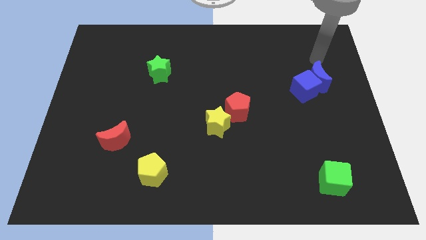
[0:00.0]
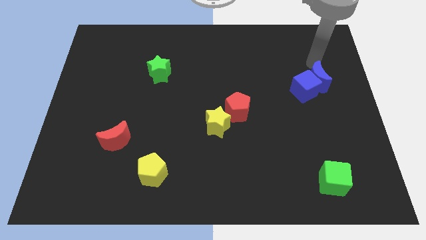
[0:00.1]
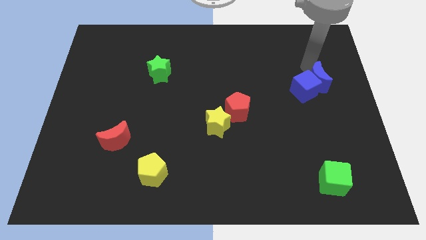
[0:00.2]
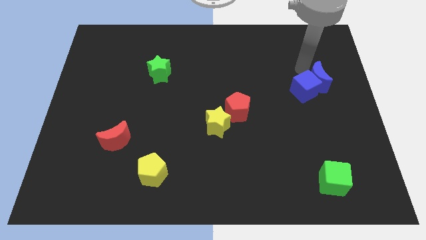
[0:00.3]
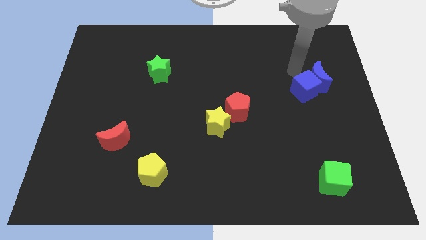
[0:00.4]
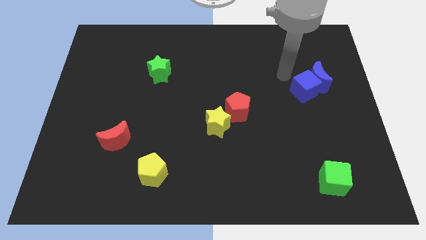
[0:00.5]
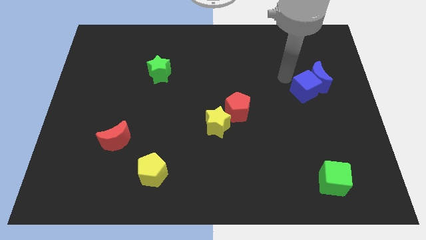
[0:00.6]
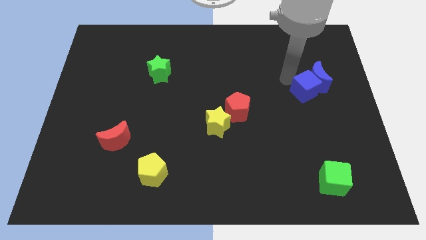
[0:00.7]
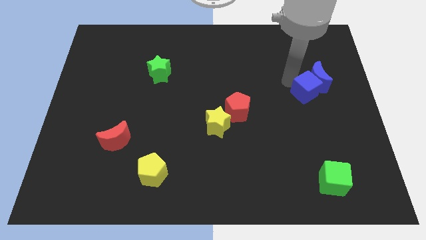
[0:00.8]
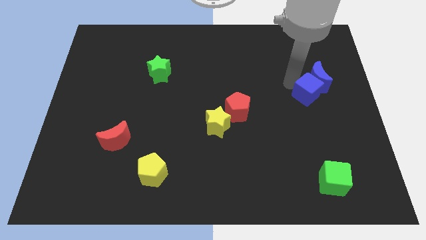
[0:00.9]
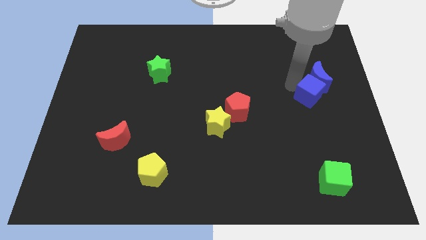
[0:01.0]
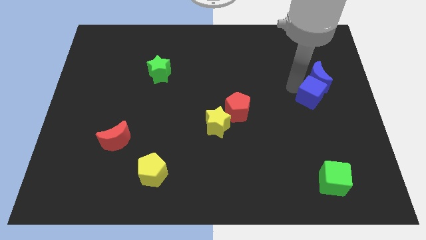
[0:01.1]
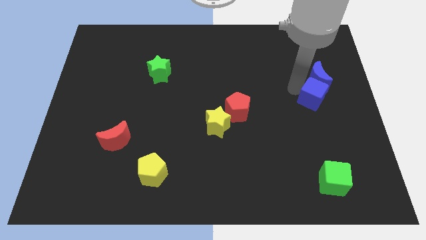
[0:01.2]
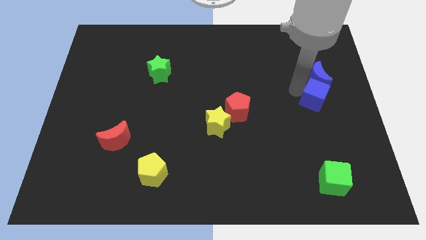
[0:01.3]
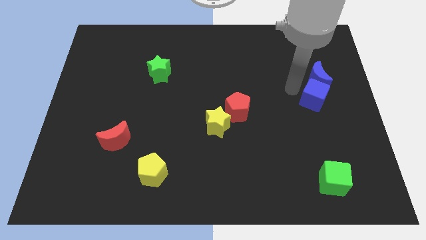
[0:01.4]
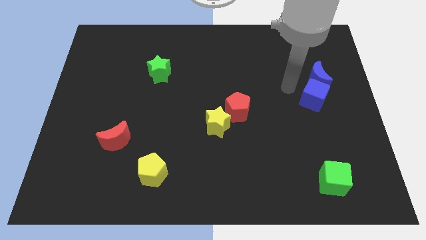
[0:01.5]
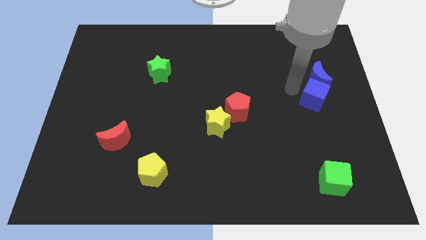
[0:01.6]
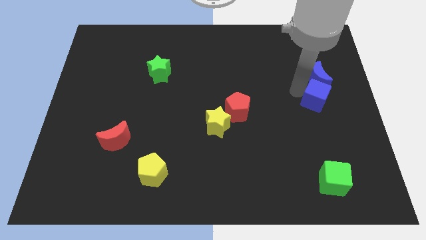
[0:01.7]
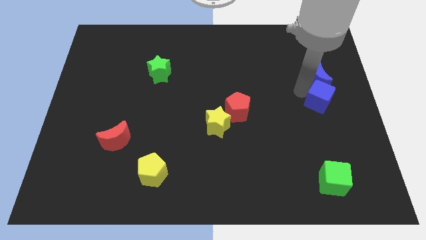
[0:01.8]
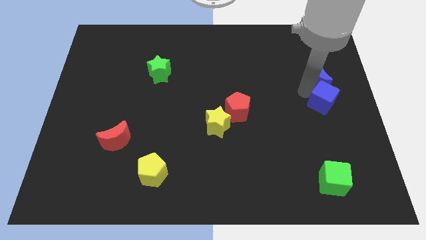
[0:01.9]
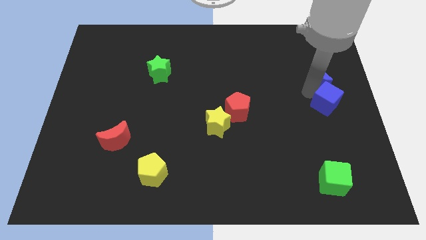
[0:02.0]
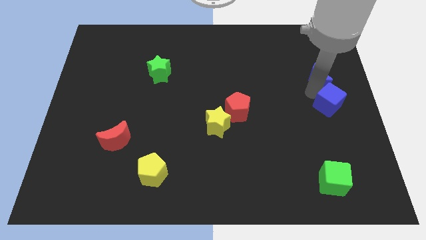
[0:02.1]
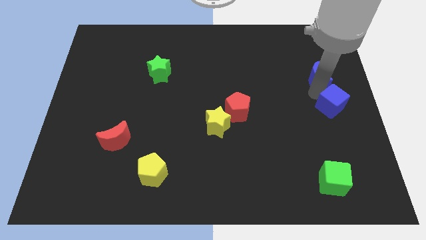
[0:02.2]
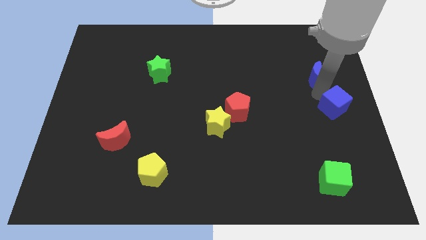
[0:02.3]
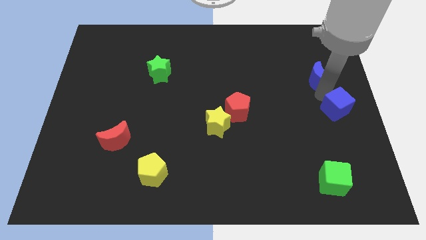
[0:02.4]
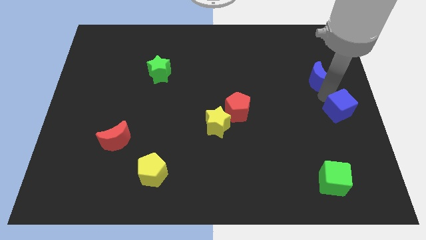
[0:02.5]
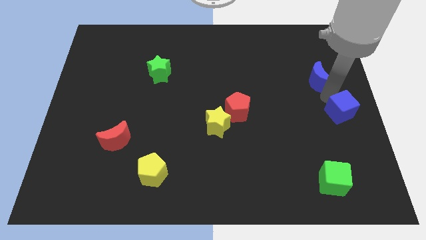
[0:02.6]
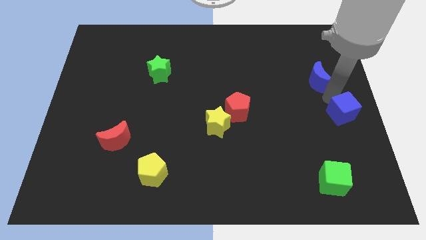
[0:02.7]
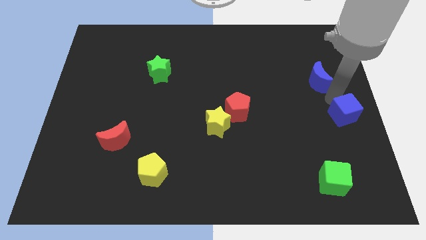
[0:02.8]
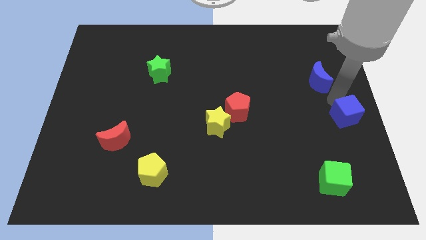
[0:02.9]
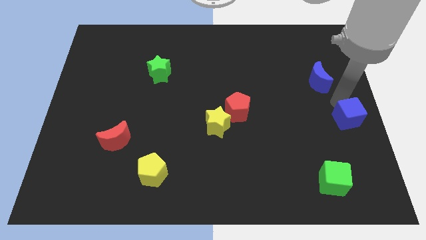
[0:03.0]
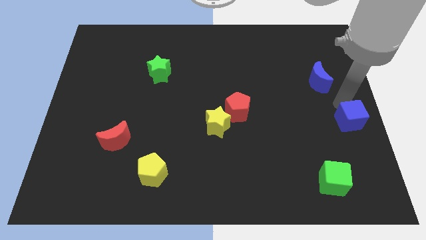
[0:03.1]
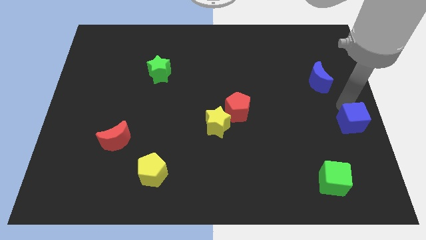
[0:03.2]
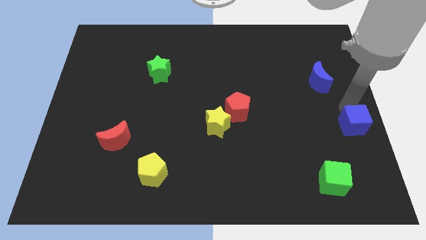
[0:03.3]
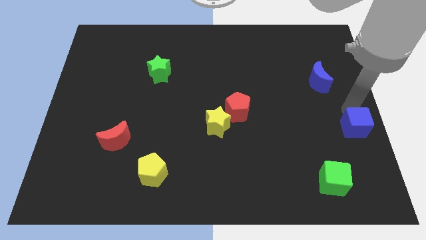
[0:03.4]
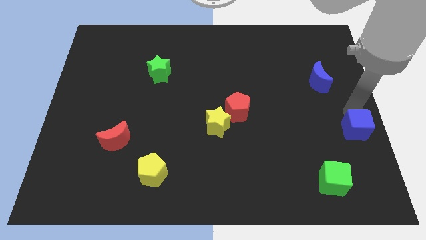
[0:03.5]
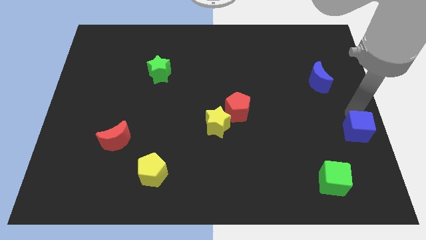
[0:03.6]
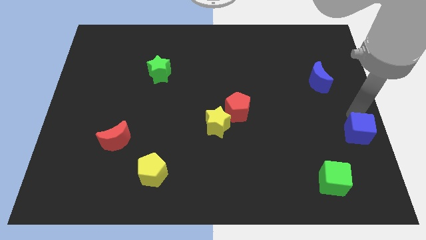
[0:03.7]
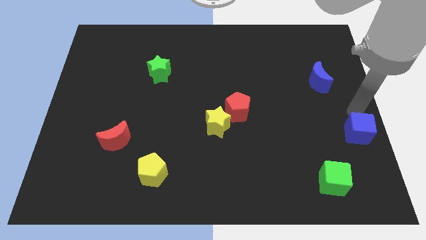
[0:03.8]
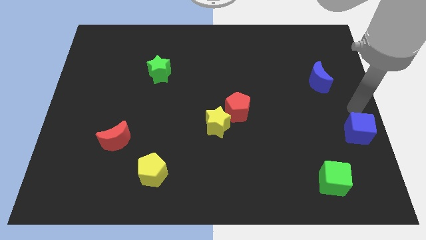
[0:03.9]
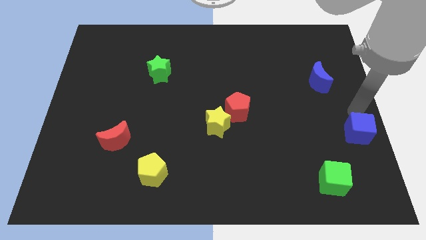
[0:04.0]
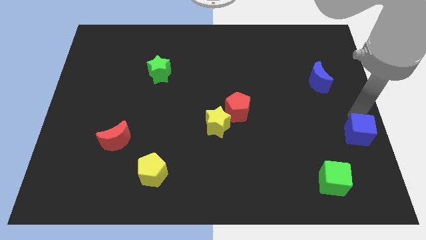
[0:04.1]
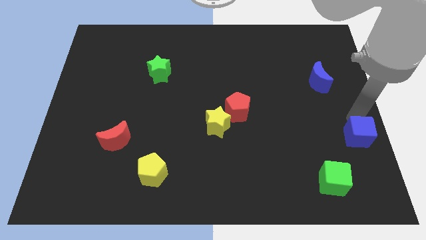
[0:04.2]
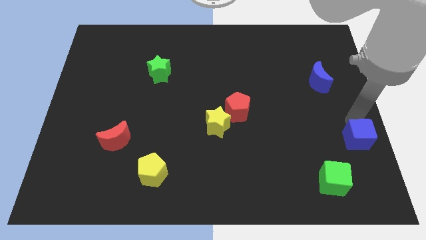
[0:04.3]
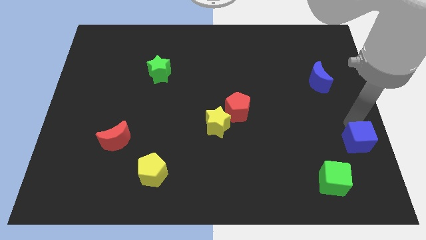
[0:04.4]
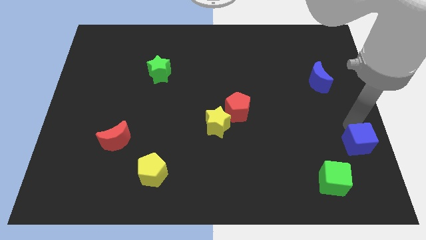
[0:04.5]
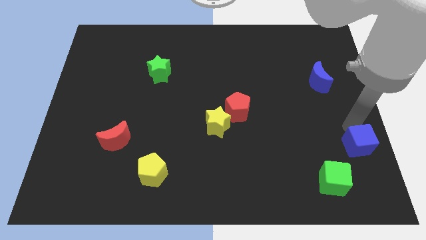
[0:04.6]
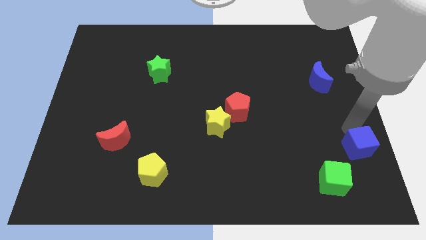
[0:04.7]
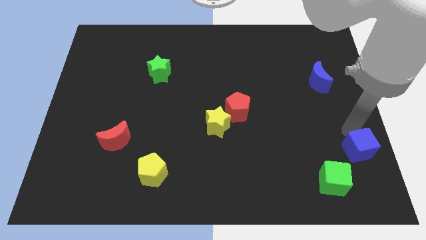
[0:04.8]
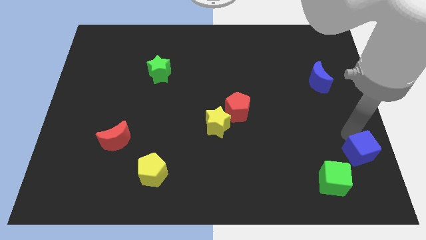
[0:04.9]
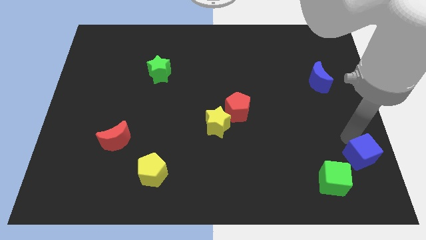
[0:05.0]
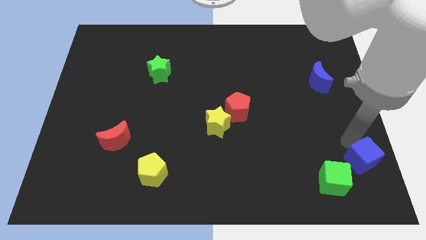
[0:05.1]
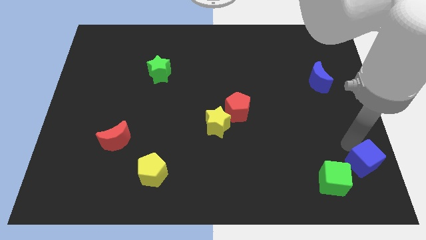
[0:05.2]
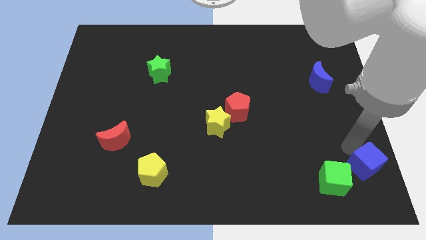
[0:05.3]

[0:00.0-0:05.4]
move the blue cube to the lower right corner

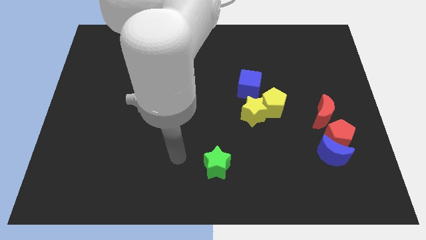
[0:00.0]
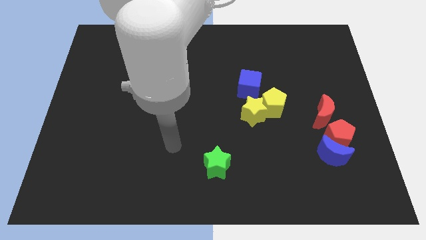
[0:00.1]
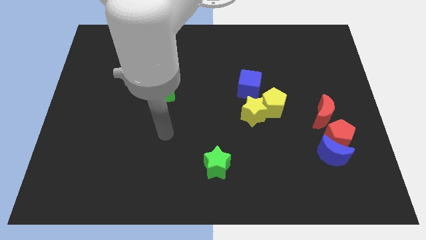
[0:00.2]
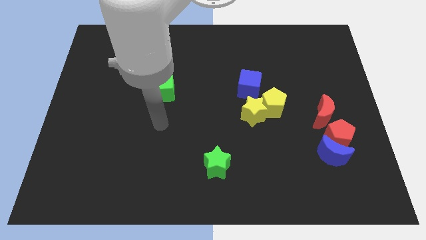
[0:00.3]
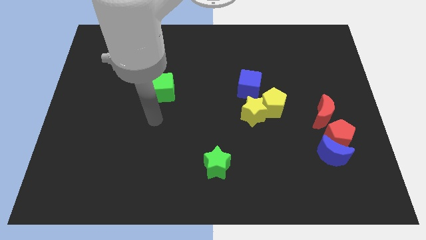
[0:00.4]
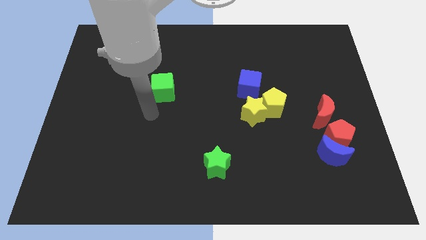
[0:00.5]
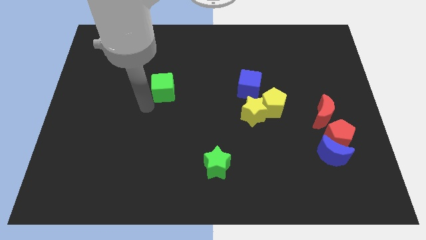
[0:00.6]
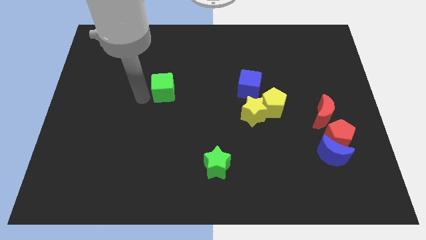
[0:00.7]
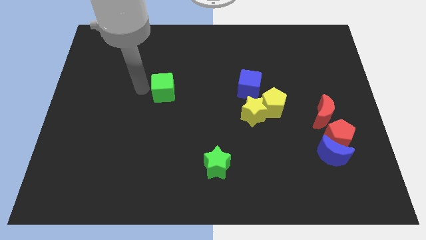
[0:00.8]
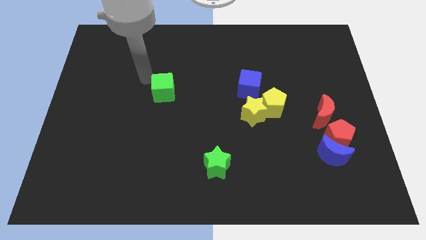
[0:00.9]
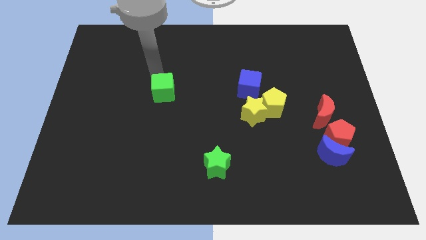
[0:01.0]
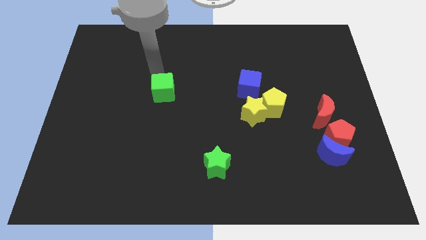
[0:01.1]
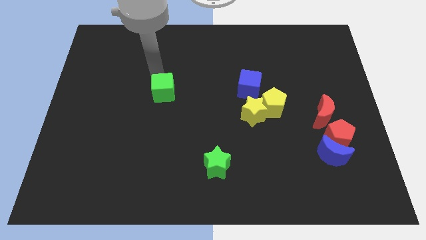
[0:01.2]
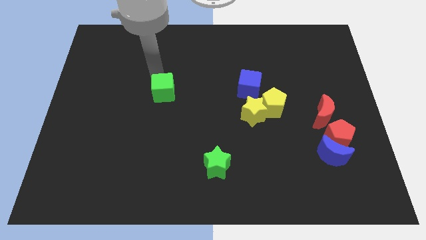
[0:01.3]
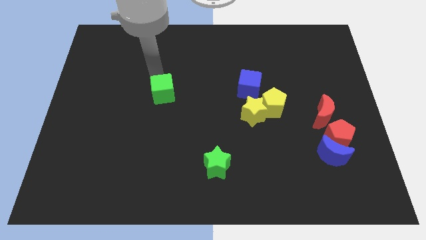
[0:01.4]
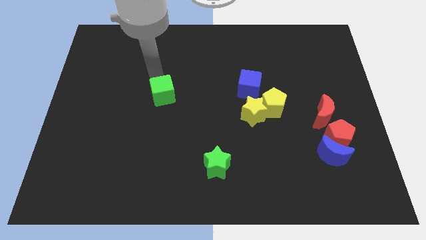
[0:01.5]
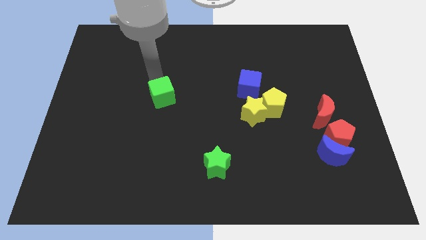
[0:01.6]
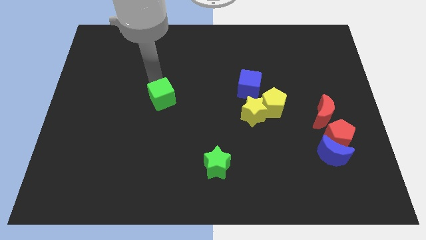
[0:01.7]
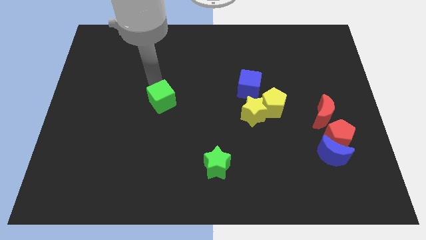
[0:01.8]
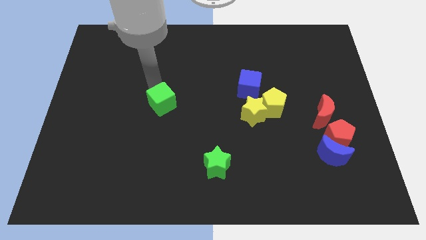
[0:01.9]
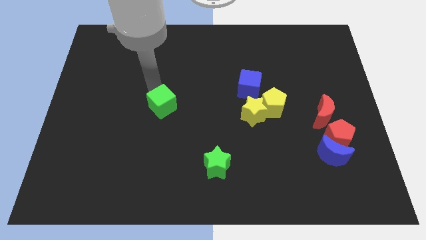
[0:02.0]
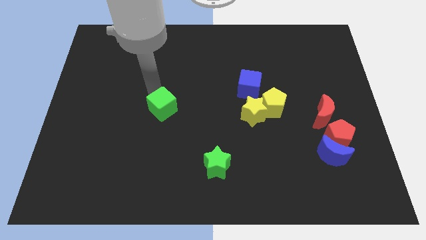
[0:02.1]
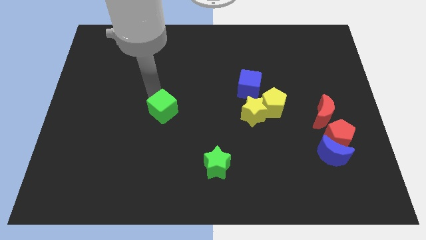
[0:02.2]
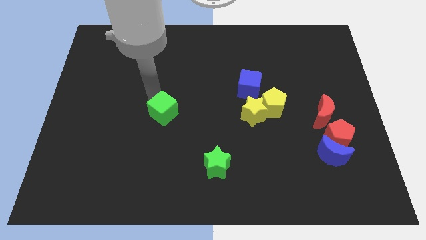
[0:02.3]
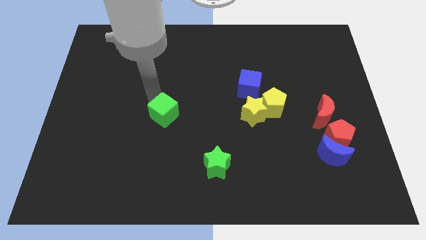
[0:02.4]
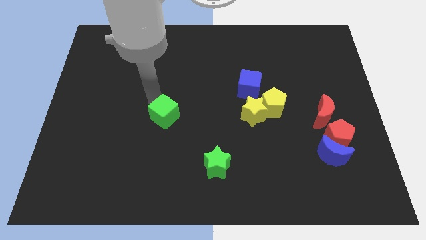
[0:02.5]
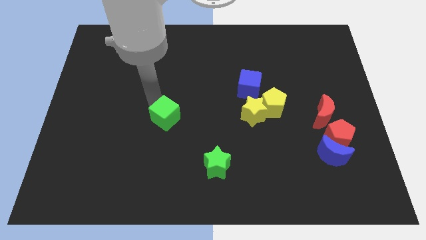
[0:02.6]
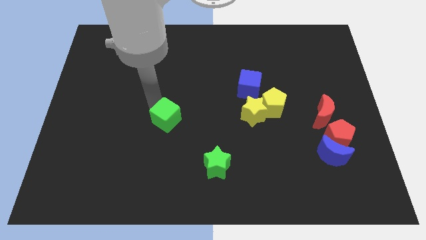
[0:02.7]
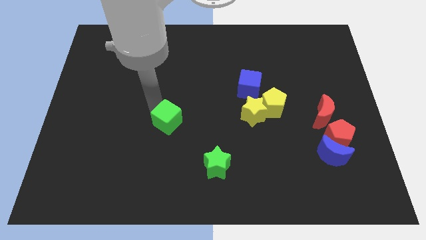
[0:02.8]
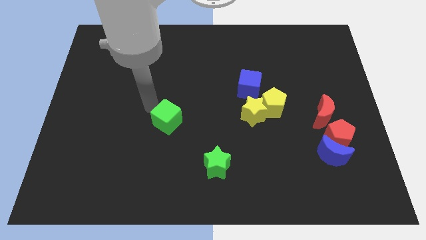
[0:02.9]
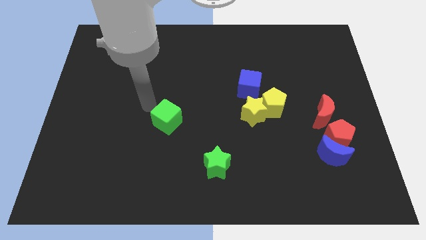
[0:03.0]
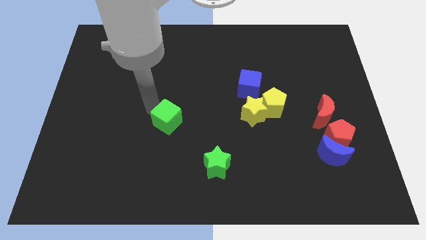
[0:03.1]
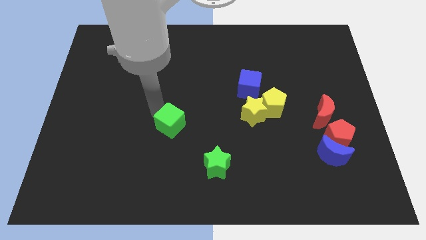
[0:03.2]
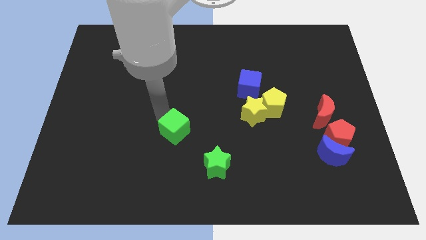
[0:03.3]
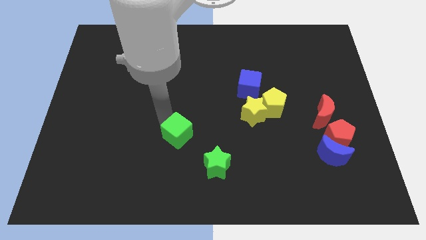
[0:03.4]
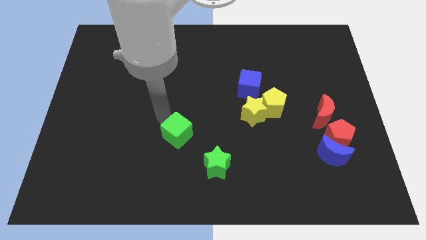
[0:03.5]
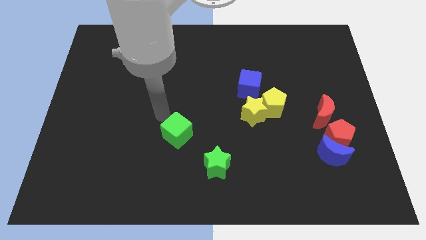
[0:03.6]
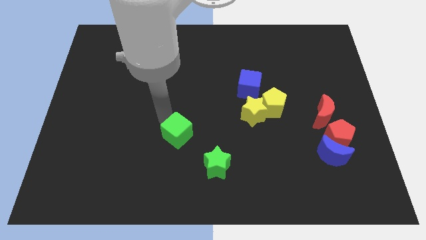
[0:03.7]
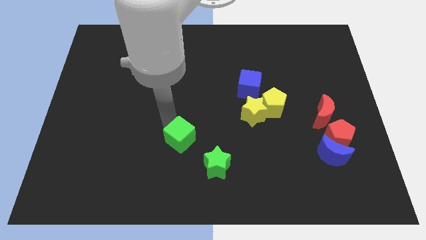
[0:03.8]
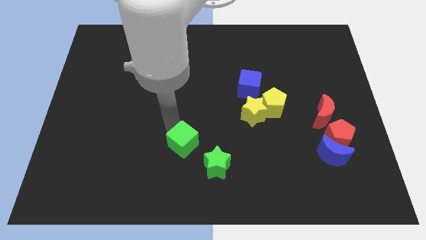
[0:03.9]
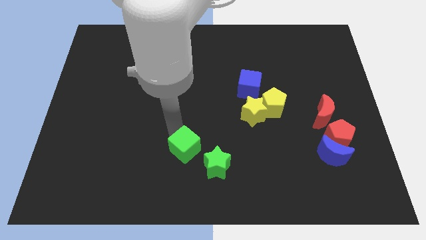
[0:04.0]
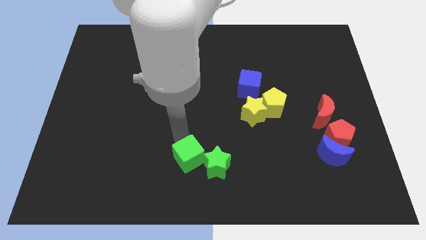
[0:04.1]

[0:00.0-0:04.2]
push the green cube to the bottom
